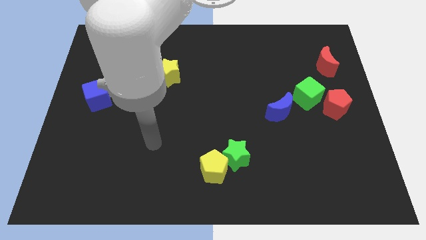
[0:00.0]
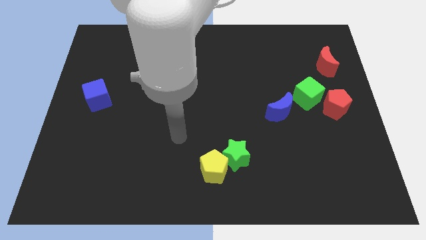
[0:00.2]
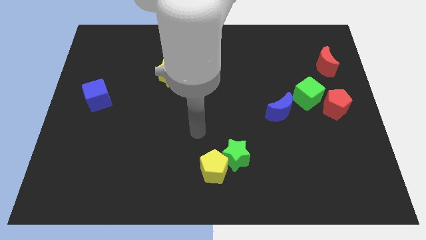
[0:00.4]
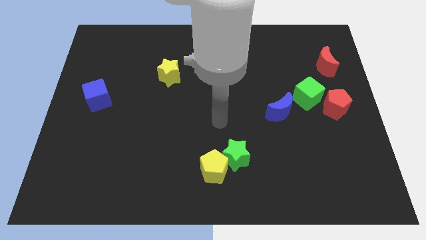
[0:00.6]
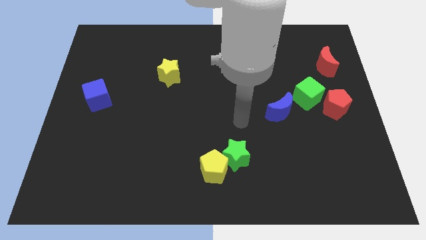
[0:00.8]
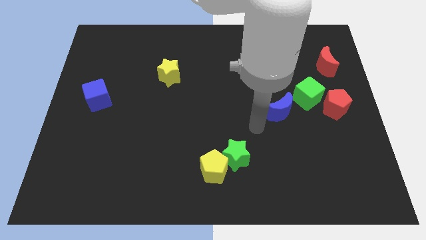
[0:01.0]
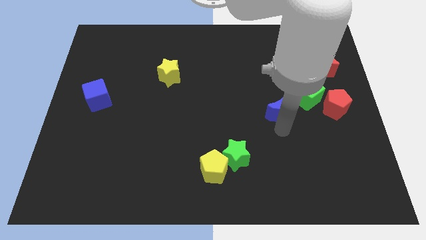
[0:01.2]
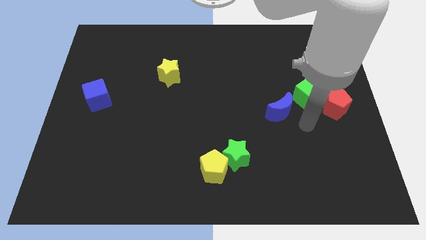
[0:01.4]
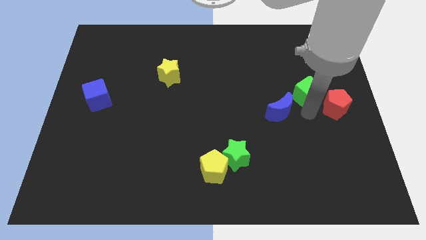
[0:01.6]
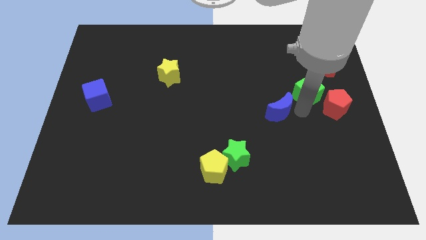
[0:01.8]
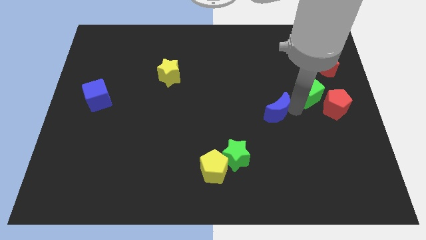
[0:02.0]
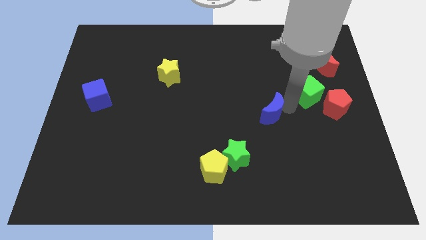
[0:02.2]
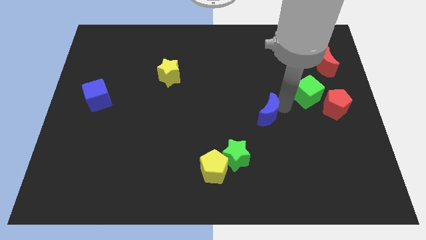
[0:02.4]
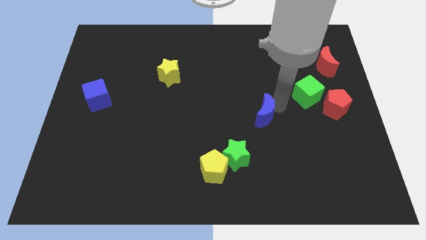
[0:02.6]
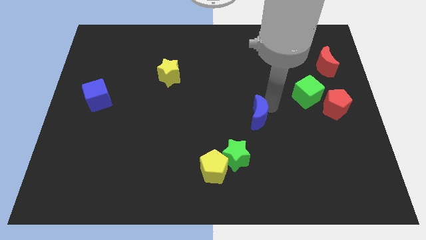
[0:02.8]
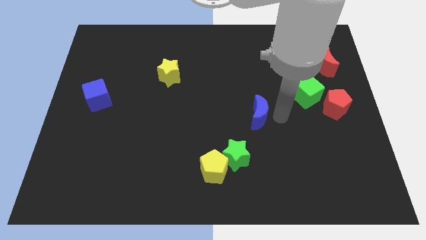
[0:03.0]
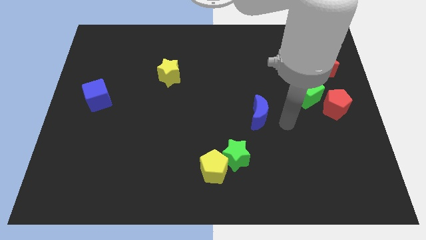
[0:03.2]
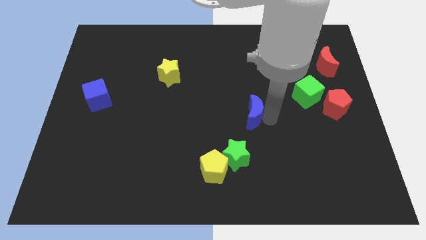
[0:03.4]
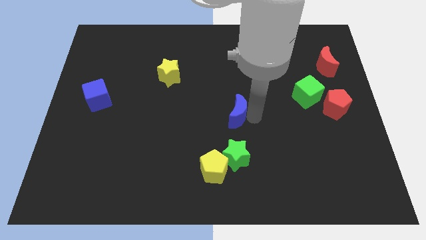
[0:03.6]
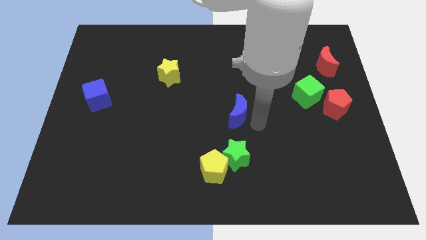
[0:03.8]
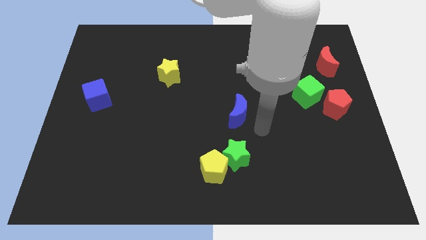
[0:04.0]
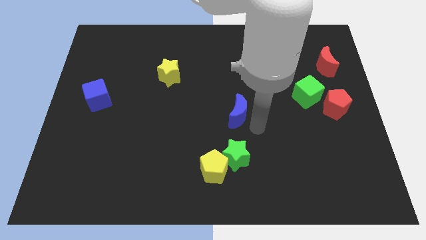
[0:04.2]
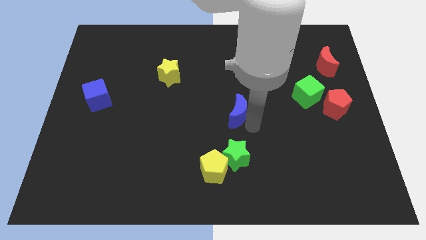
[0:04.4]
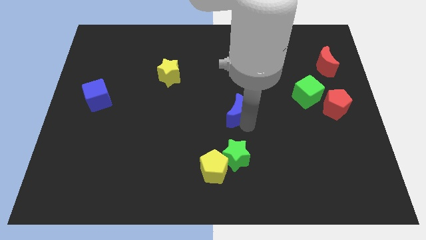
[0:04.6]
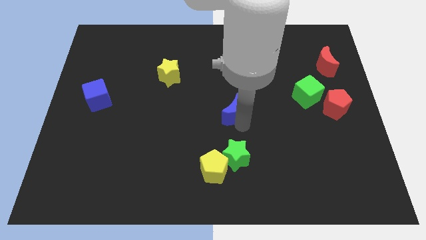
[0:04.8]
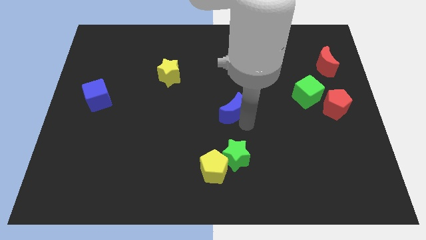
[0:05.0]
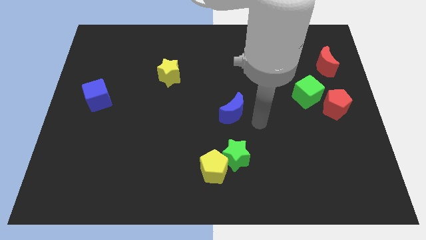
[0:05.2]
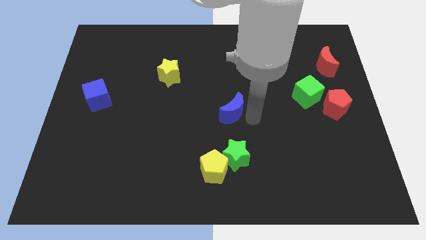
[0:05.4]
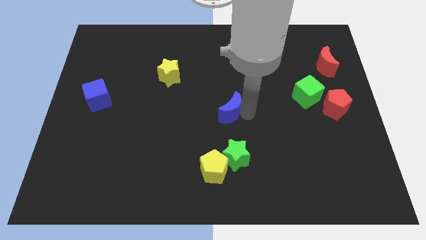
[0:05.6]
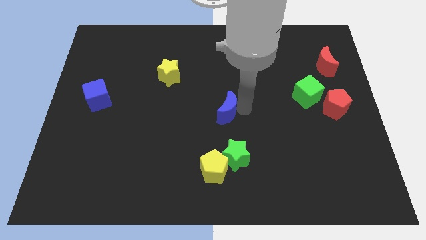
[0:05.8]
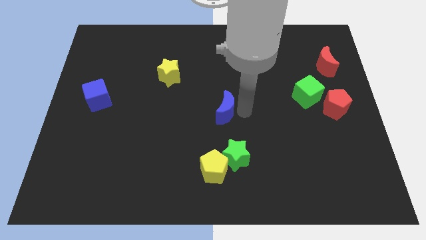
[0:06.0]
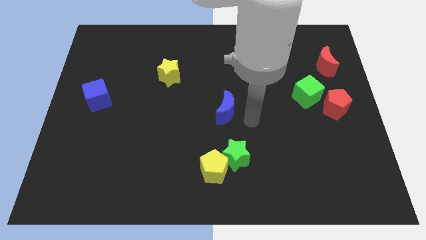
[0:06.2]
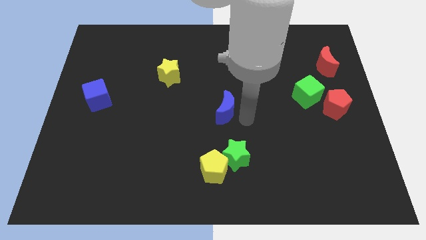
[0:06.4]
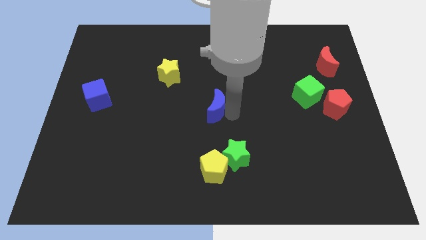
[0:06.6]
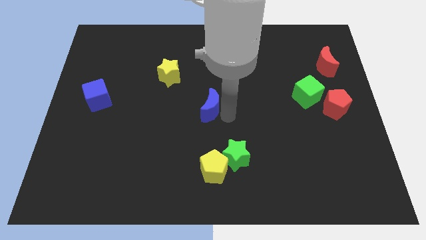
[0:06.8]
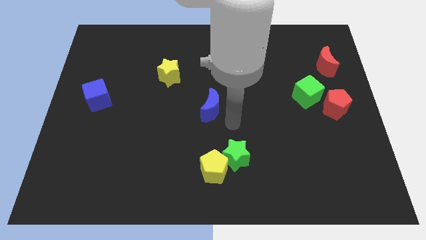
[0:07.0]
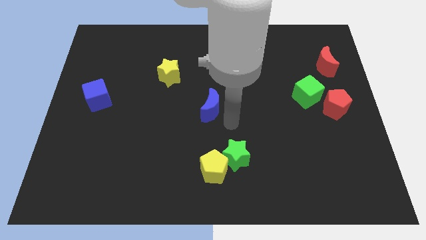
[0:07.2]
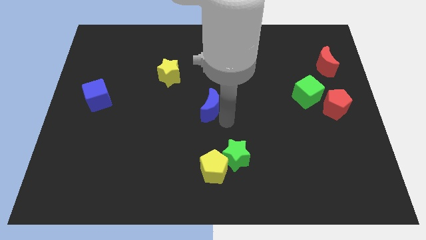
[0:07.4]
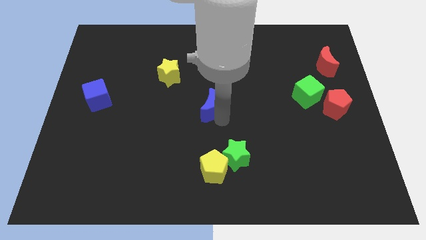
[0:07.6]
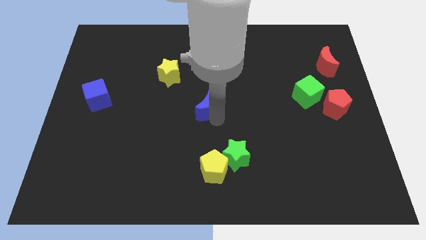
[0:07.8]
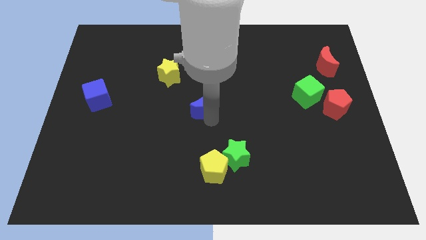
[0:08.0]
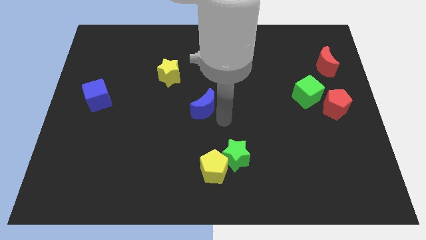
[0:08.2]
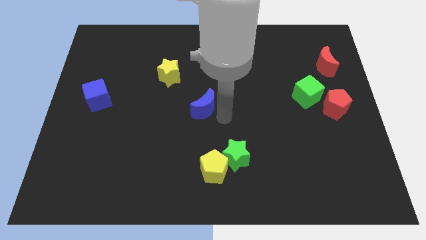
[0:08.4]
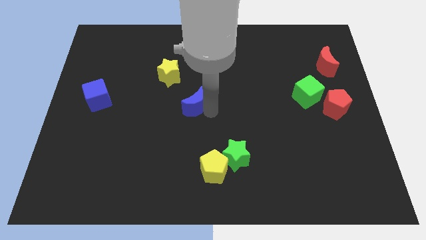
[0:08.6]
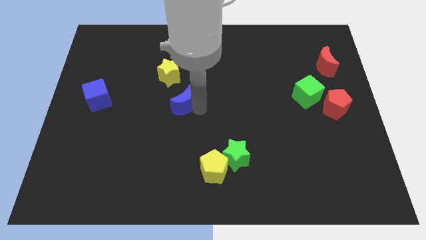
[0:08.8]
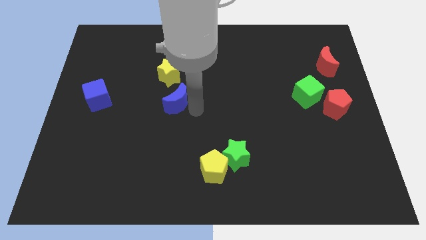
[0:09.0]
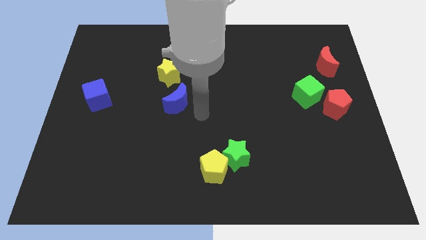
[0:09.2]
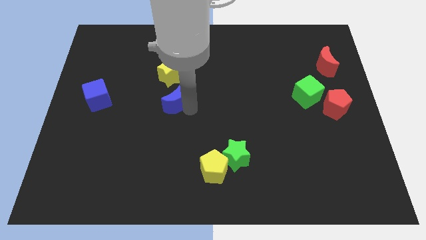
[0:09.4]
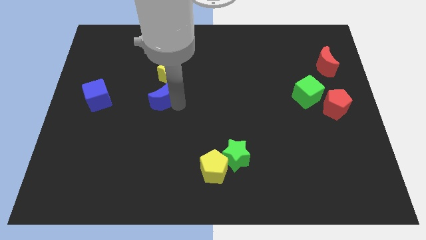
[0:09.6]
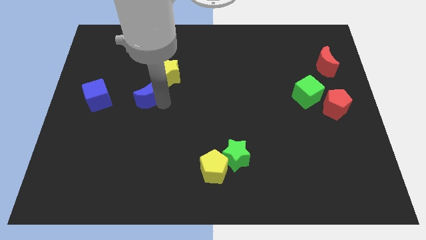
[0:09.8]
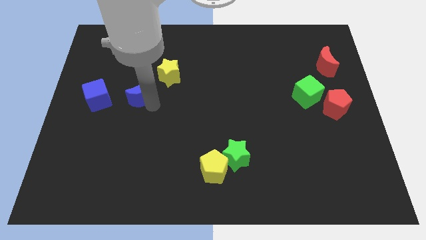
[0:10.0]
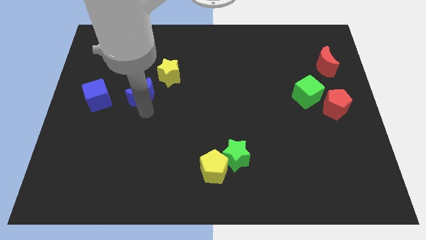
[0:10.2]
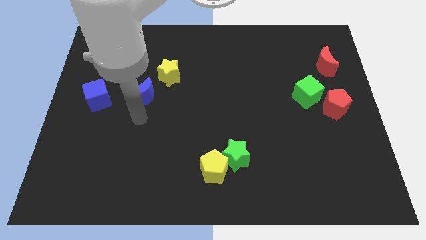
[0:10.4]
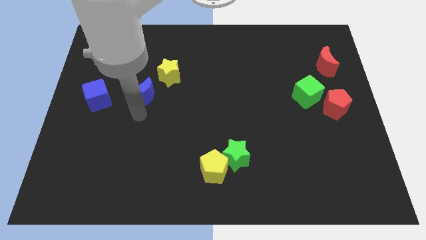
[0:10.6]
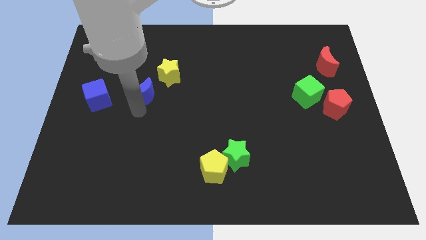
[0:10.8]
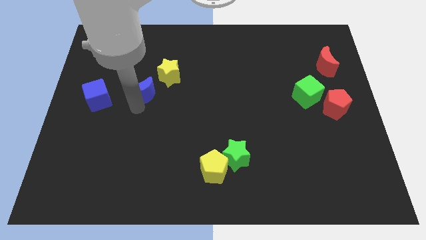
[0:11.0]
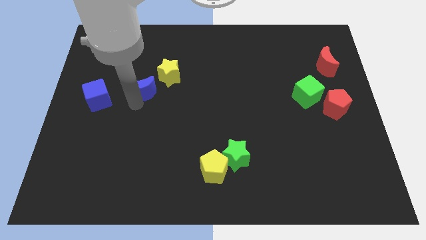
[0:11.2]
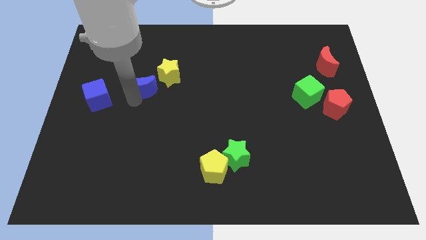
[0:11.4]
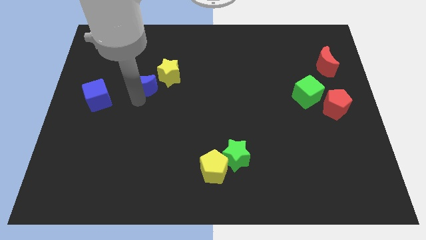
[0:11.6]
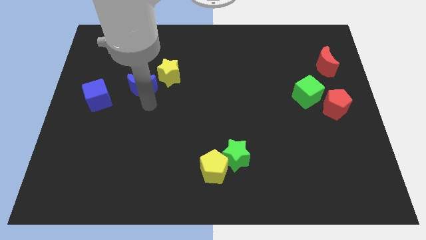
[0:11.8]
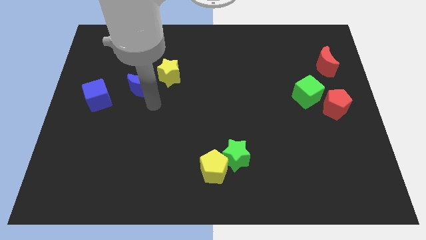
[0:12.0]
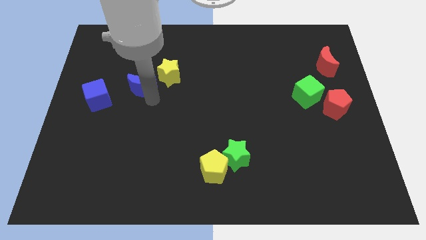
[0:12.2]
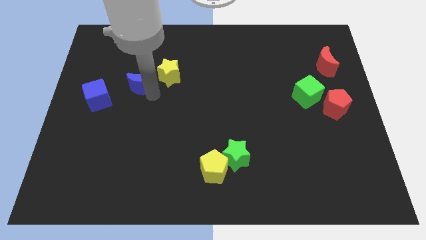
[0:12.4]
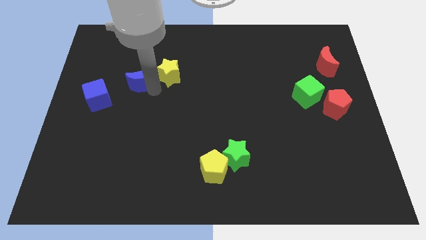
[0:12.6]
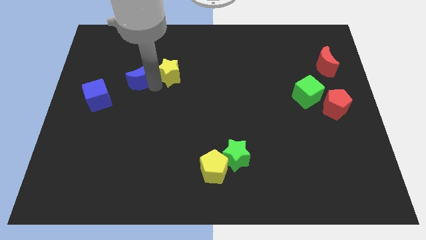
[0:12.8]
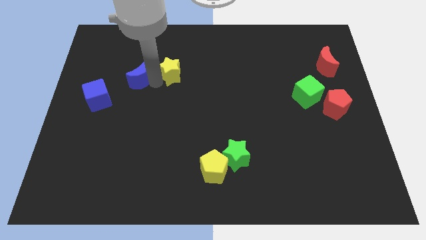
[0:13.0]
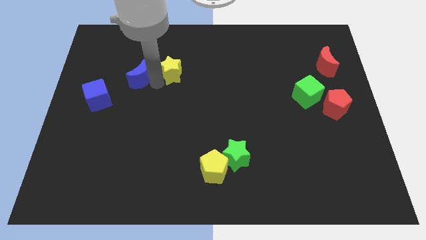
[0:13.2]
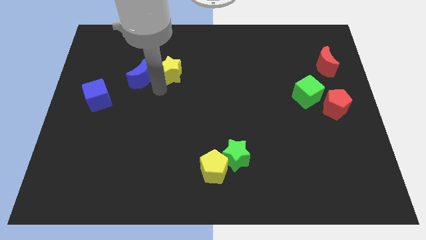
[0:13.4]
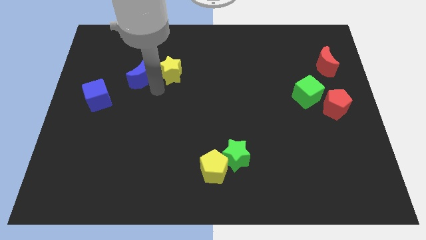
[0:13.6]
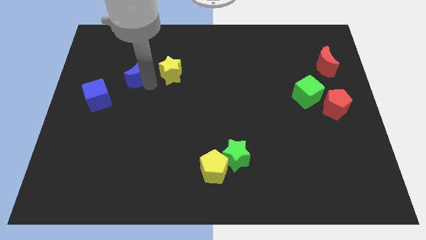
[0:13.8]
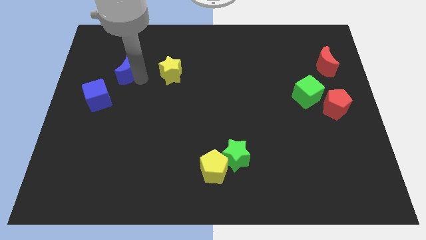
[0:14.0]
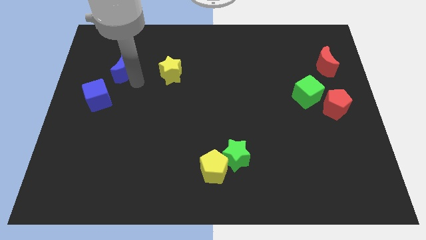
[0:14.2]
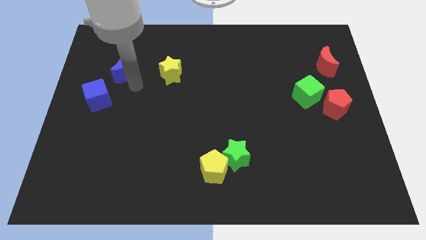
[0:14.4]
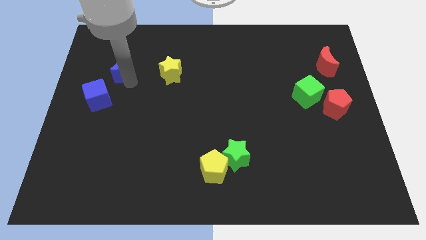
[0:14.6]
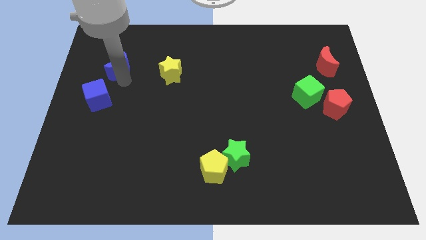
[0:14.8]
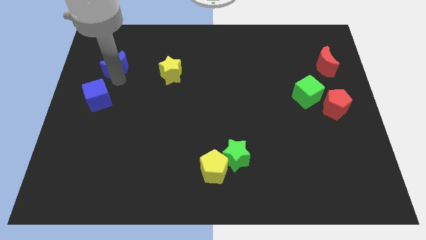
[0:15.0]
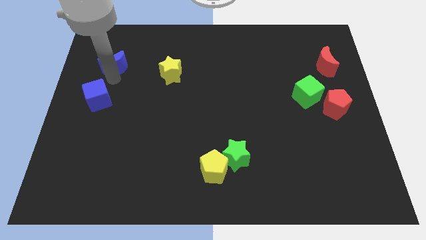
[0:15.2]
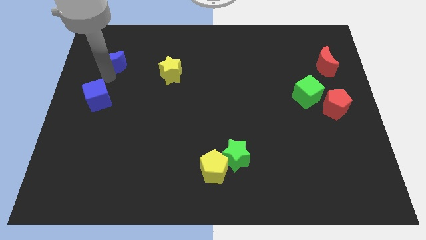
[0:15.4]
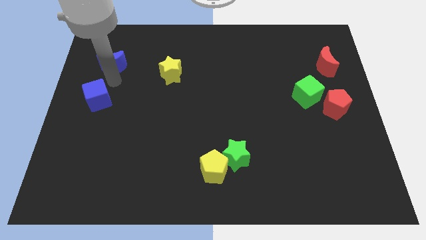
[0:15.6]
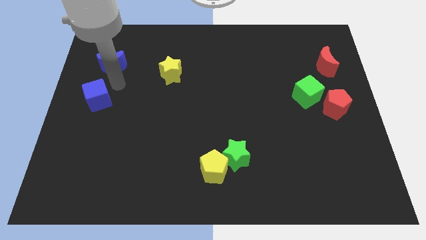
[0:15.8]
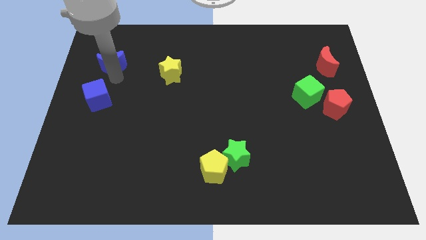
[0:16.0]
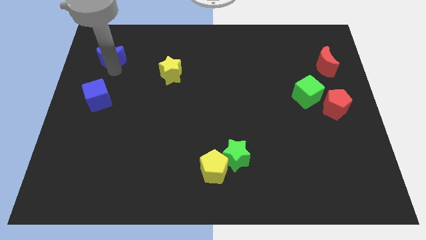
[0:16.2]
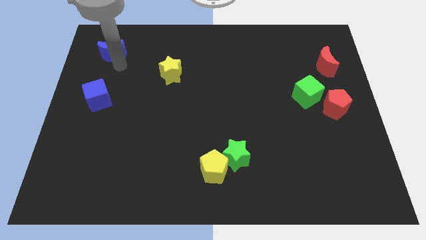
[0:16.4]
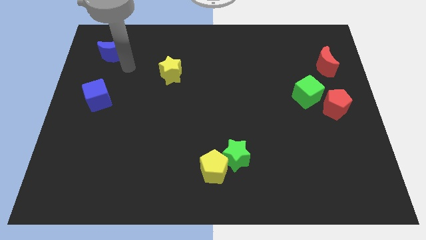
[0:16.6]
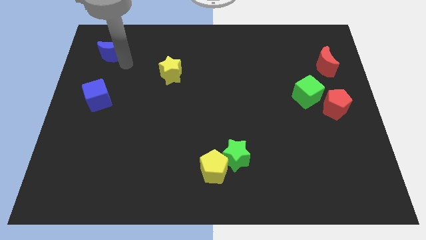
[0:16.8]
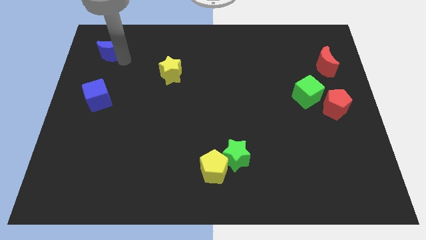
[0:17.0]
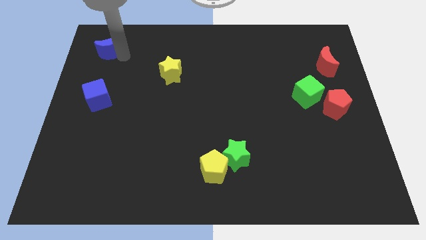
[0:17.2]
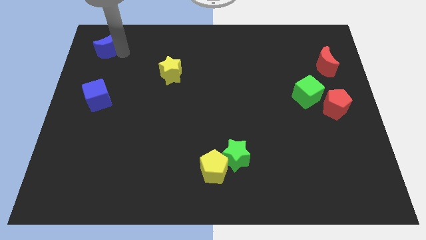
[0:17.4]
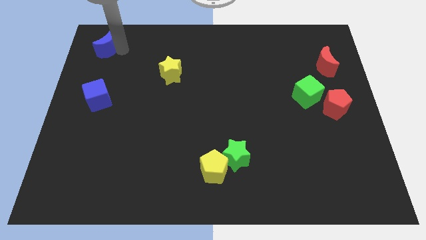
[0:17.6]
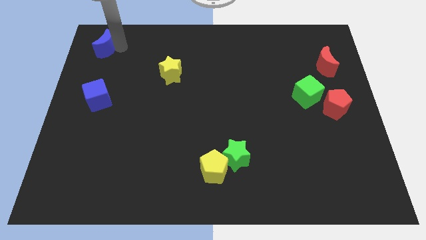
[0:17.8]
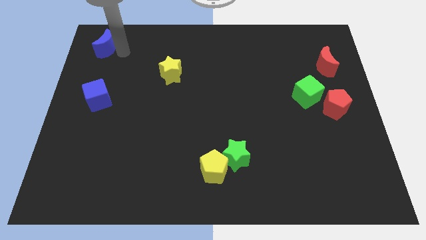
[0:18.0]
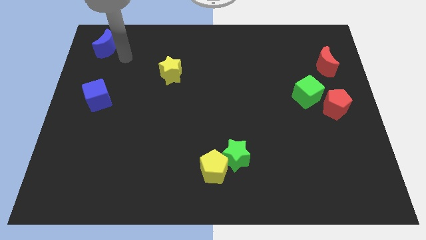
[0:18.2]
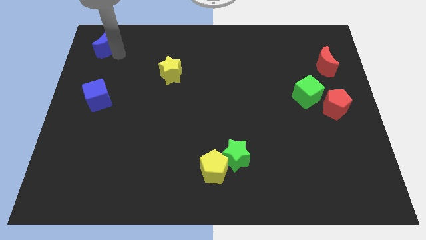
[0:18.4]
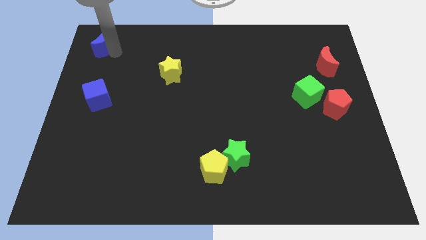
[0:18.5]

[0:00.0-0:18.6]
move the blue moon to the upper left corner
